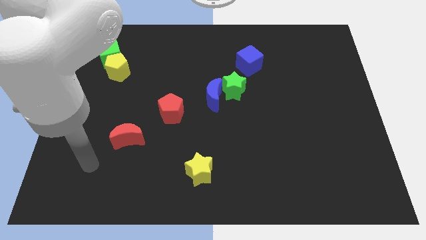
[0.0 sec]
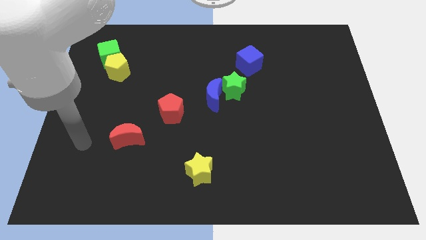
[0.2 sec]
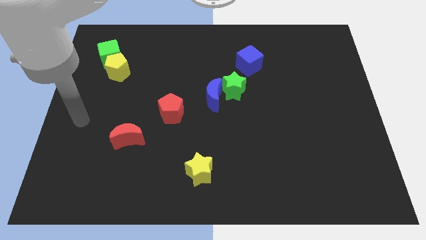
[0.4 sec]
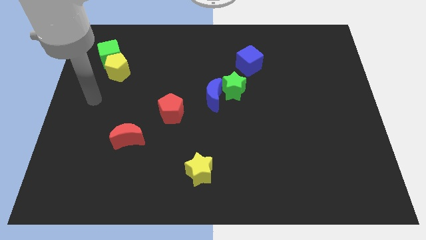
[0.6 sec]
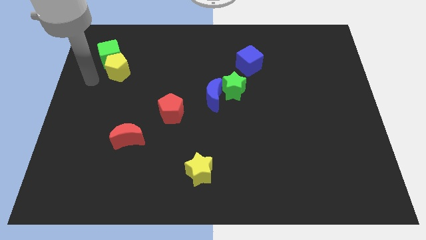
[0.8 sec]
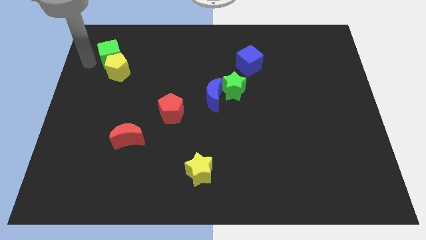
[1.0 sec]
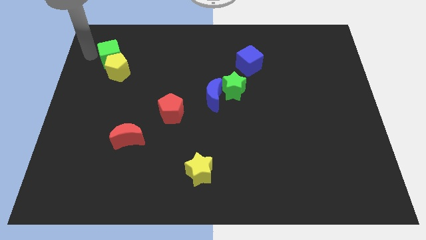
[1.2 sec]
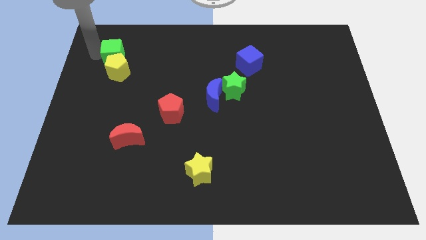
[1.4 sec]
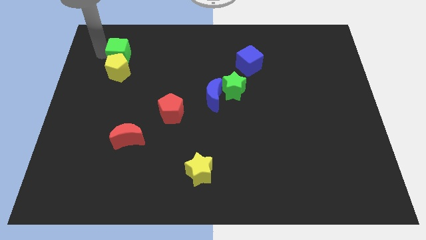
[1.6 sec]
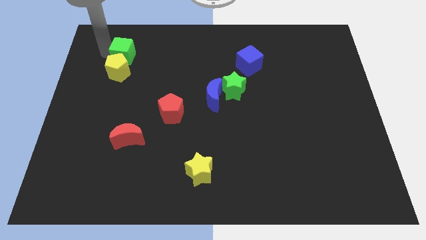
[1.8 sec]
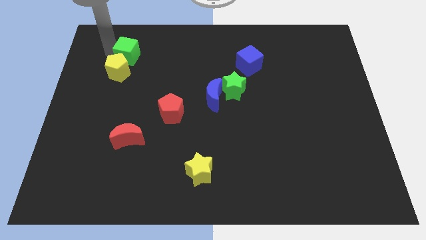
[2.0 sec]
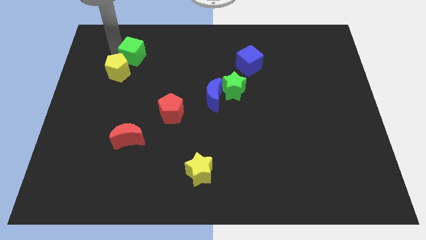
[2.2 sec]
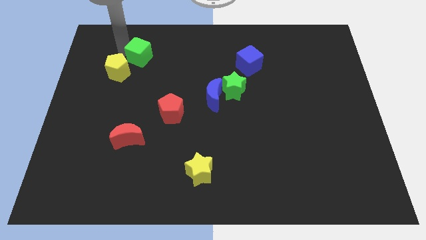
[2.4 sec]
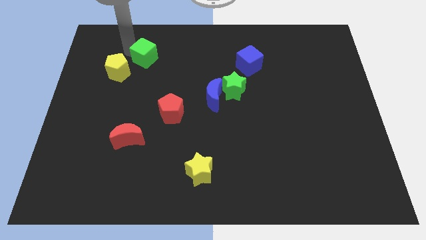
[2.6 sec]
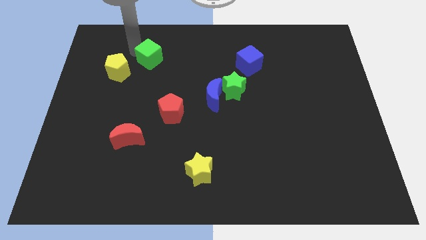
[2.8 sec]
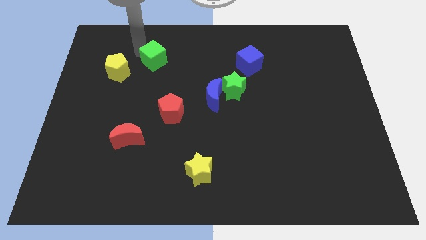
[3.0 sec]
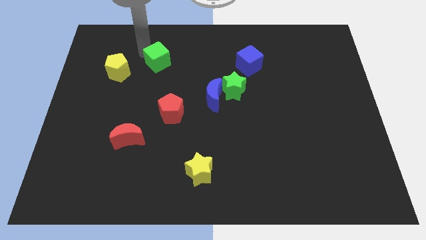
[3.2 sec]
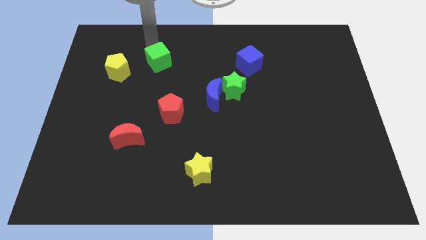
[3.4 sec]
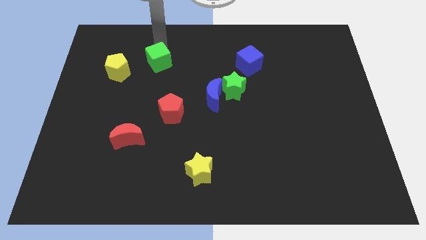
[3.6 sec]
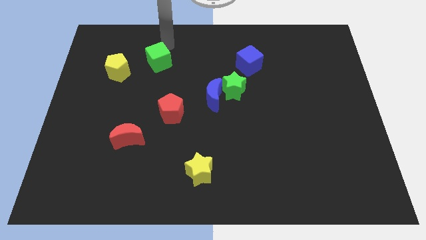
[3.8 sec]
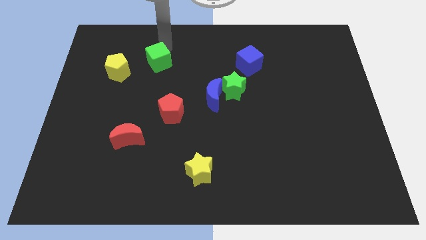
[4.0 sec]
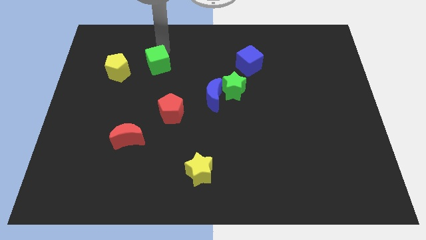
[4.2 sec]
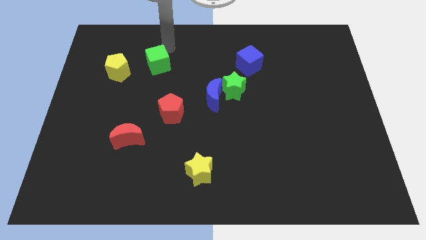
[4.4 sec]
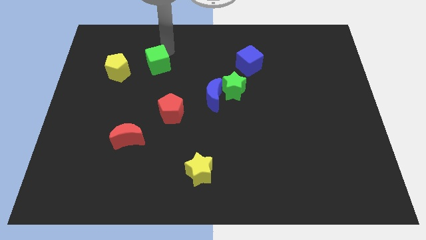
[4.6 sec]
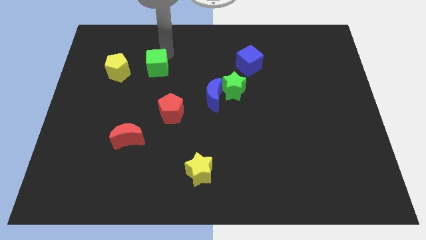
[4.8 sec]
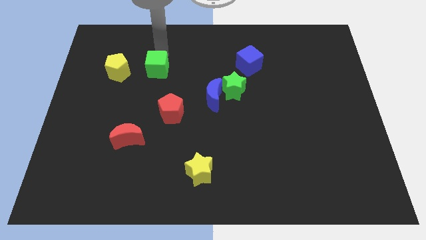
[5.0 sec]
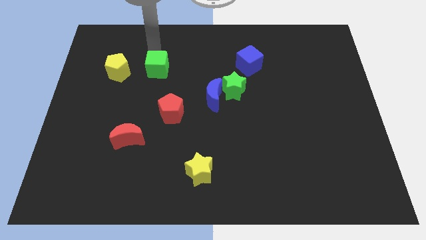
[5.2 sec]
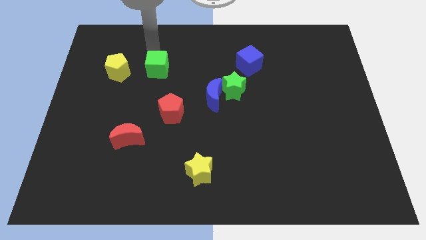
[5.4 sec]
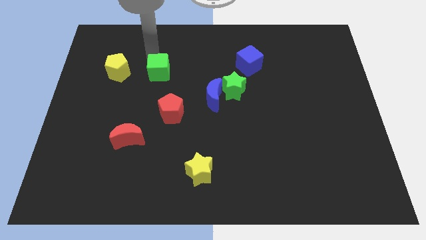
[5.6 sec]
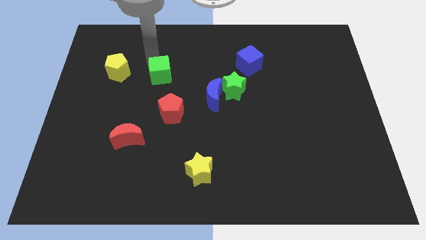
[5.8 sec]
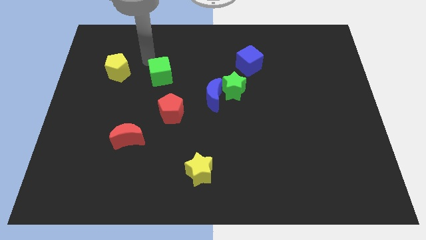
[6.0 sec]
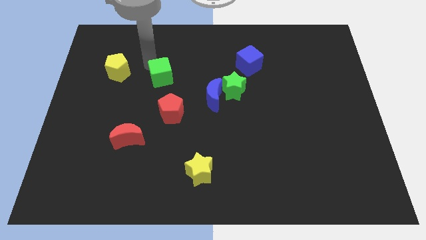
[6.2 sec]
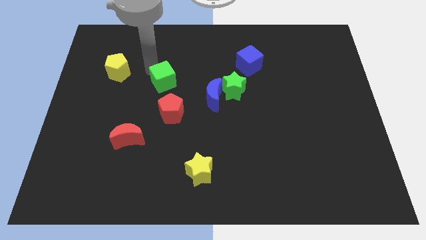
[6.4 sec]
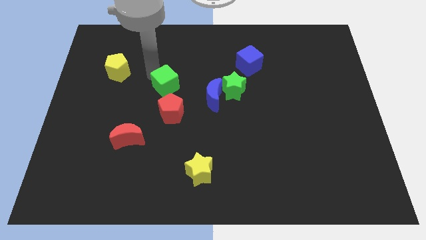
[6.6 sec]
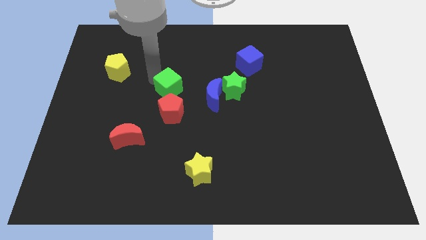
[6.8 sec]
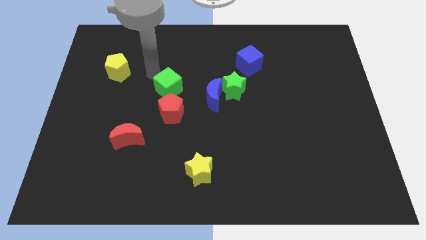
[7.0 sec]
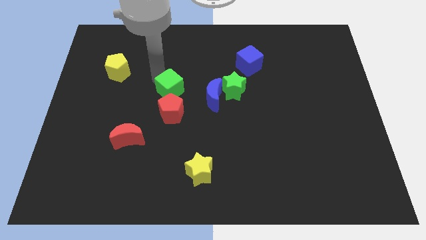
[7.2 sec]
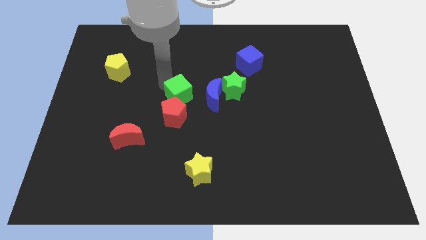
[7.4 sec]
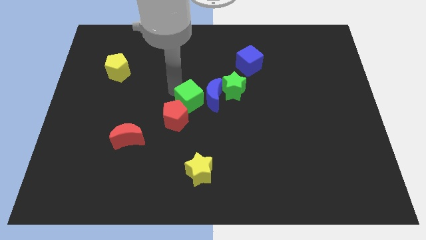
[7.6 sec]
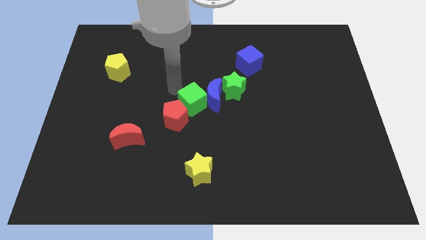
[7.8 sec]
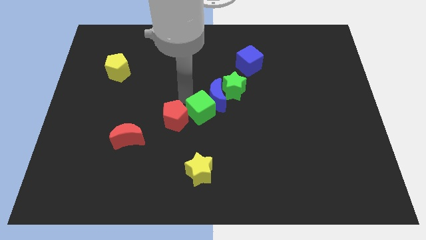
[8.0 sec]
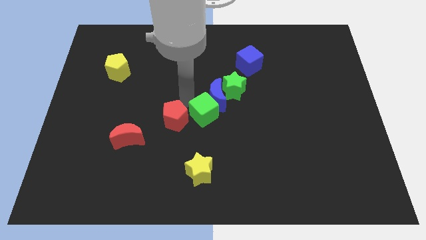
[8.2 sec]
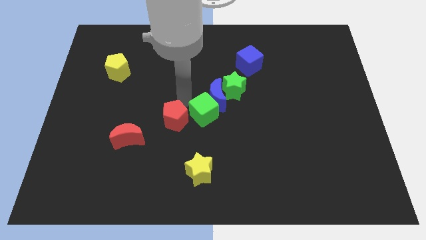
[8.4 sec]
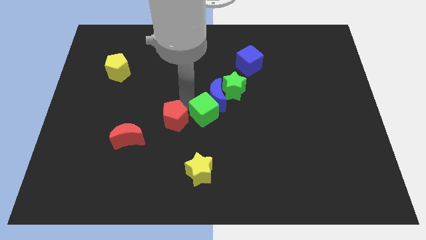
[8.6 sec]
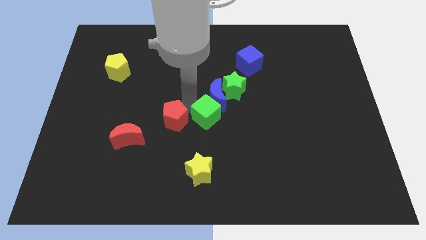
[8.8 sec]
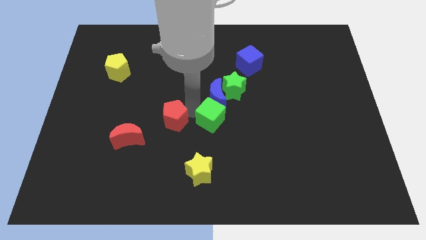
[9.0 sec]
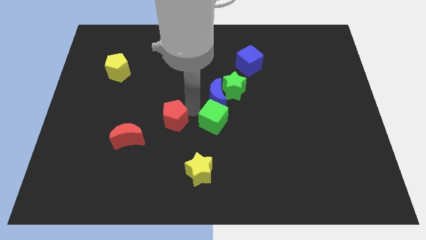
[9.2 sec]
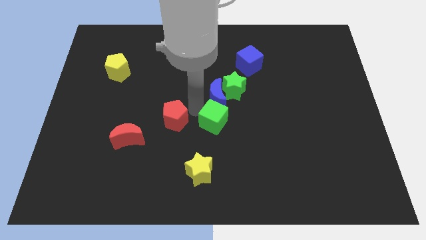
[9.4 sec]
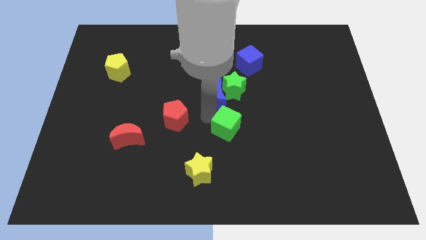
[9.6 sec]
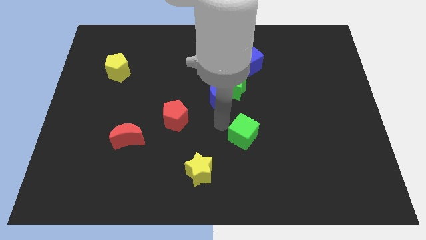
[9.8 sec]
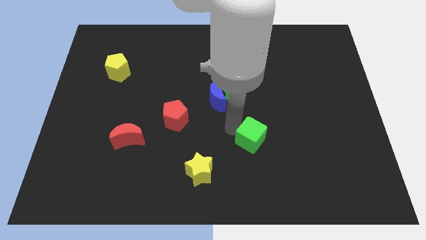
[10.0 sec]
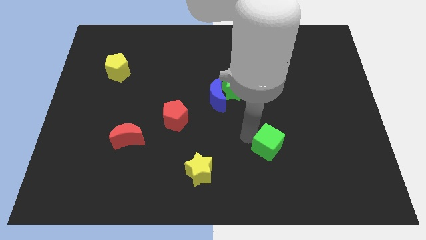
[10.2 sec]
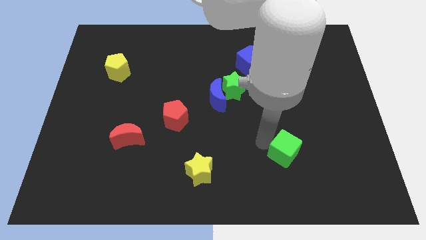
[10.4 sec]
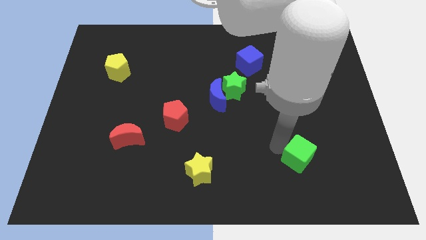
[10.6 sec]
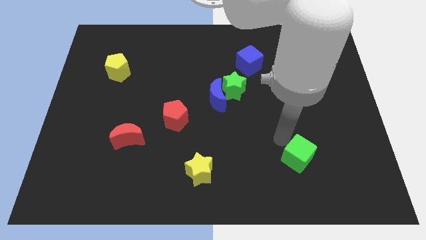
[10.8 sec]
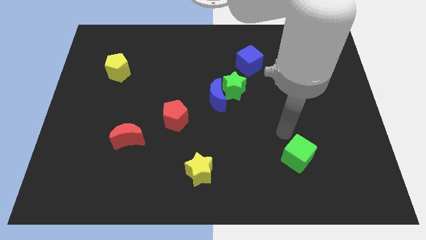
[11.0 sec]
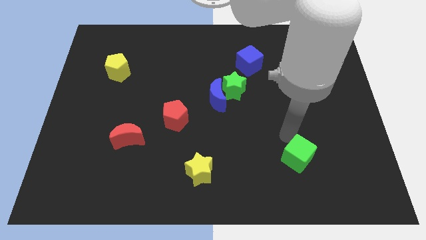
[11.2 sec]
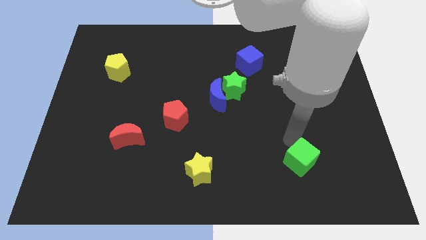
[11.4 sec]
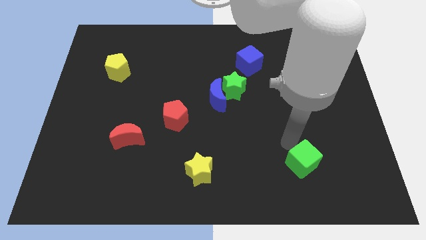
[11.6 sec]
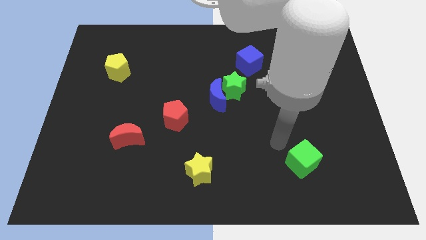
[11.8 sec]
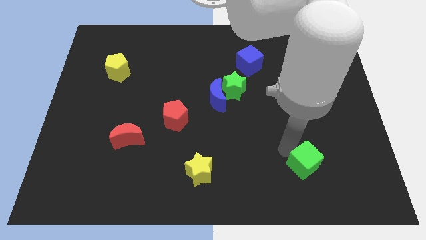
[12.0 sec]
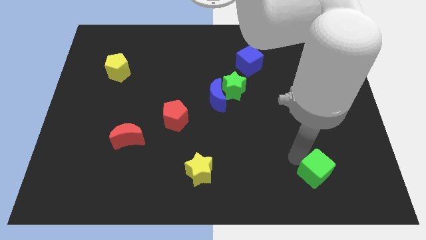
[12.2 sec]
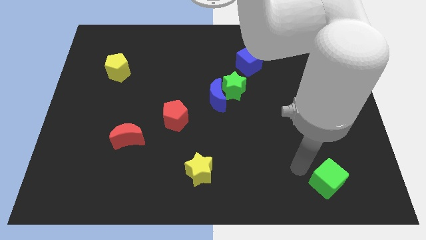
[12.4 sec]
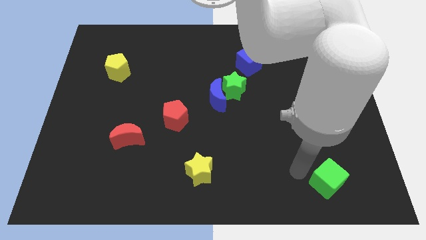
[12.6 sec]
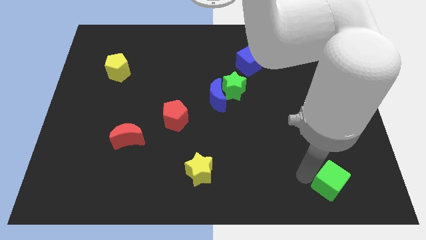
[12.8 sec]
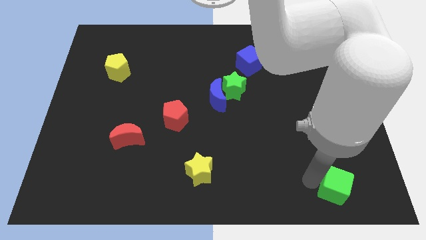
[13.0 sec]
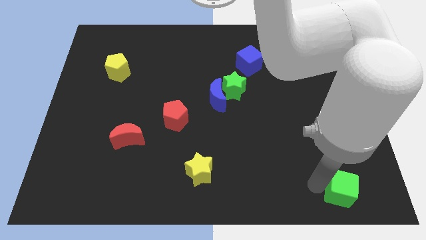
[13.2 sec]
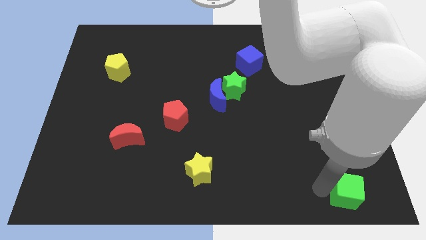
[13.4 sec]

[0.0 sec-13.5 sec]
slide the green cube to the lower right corner
